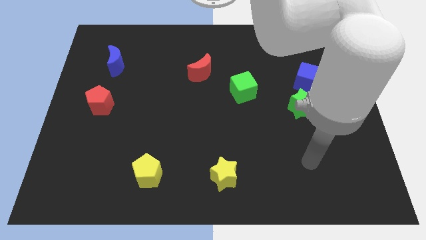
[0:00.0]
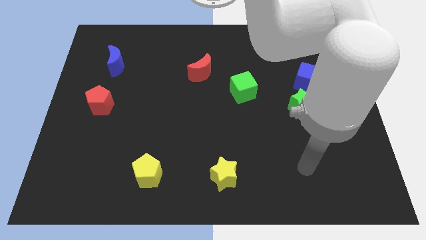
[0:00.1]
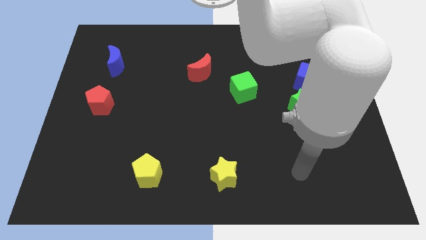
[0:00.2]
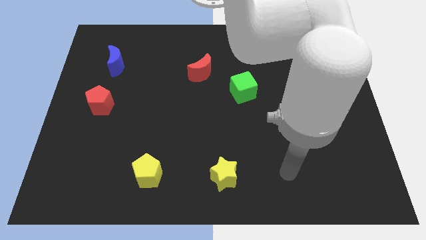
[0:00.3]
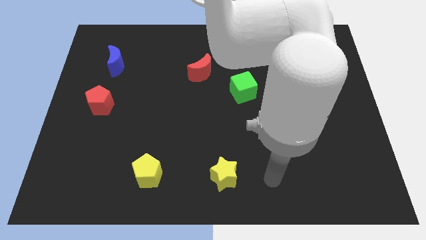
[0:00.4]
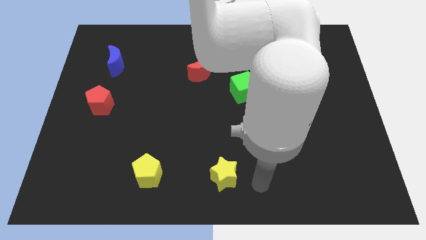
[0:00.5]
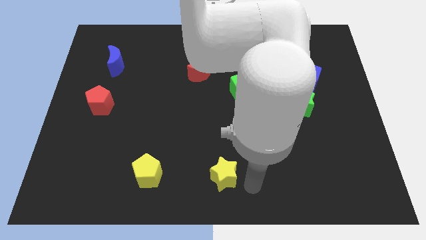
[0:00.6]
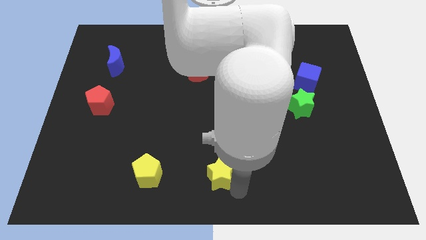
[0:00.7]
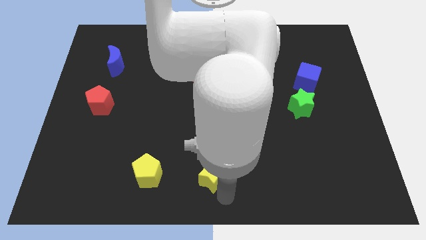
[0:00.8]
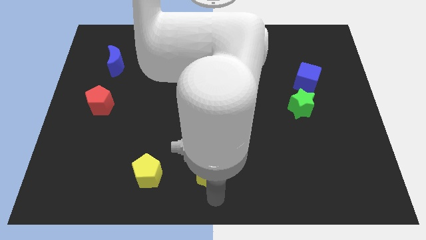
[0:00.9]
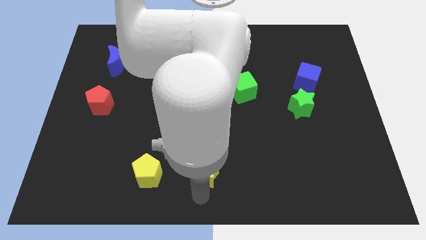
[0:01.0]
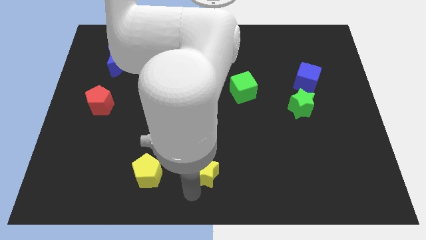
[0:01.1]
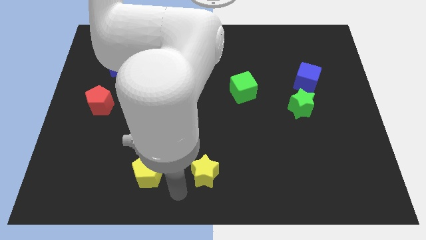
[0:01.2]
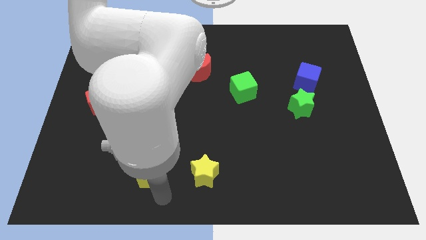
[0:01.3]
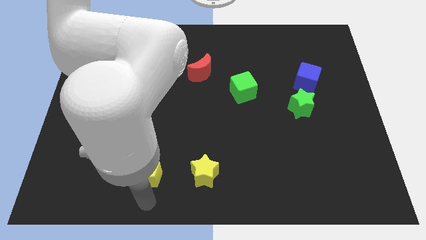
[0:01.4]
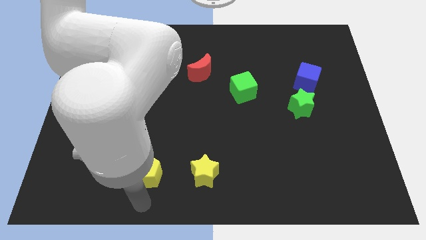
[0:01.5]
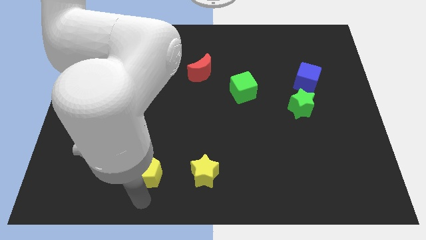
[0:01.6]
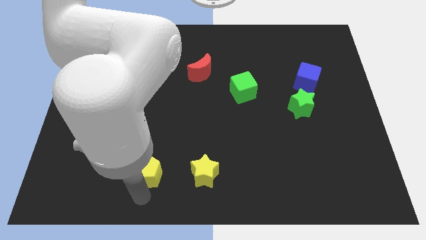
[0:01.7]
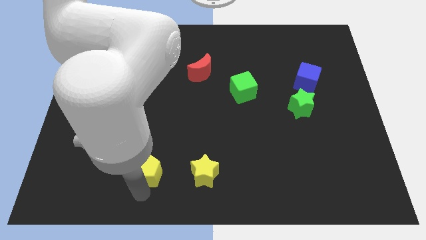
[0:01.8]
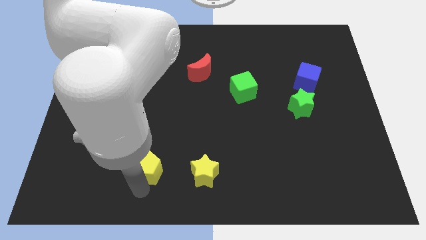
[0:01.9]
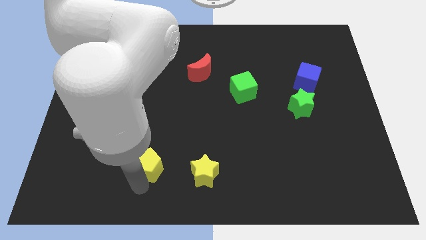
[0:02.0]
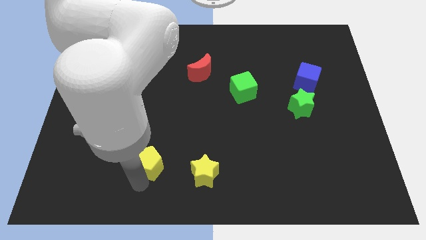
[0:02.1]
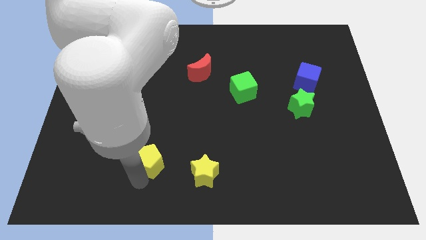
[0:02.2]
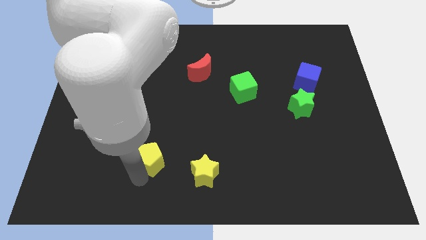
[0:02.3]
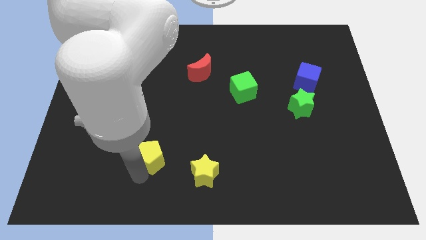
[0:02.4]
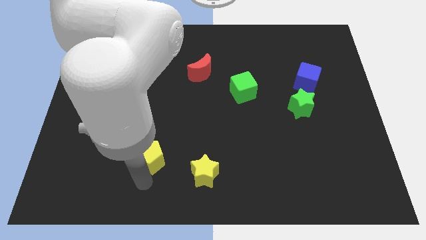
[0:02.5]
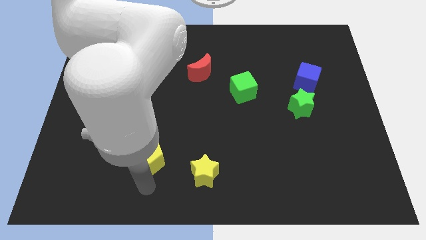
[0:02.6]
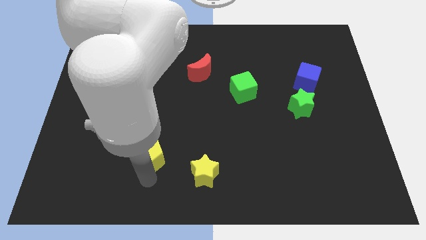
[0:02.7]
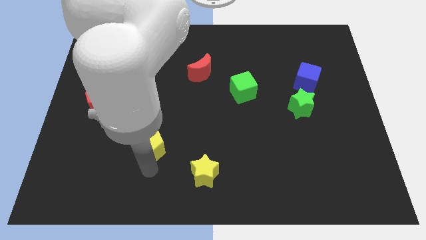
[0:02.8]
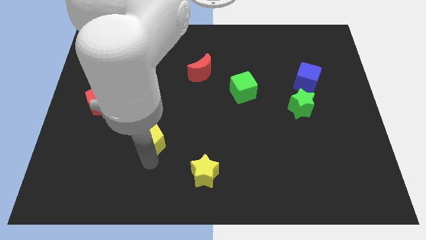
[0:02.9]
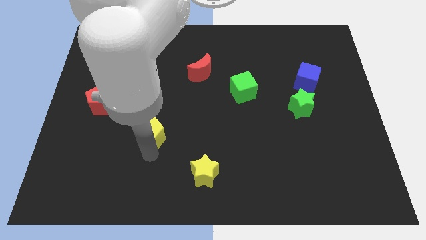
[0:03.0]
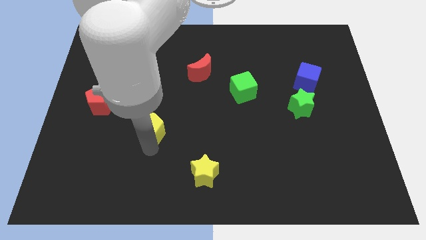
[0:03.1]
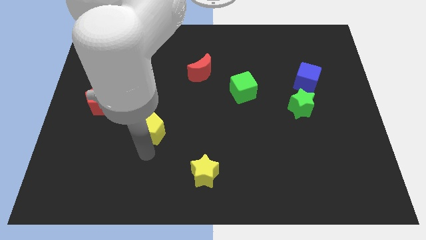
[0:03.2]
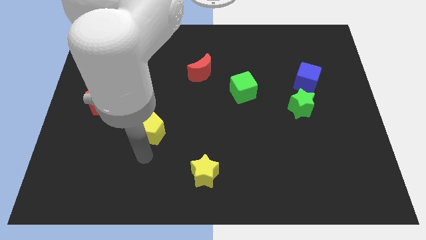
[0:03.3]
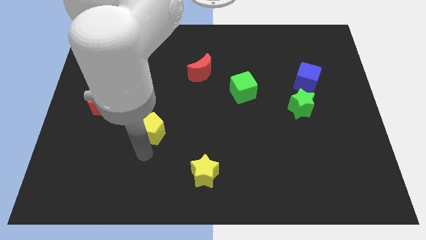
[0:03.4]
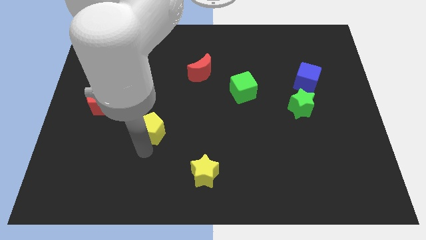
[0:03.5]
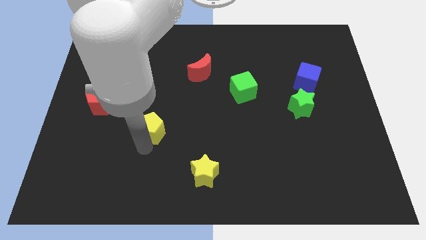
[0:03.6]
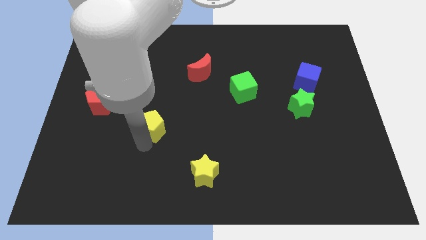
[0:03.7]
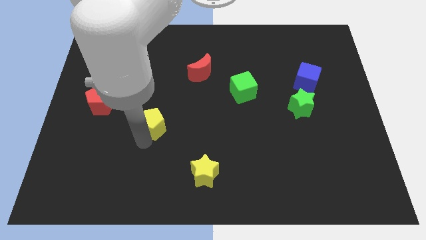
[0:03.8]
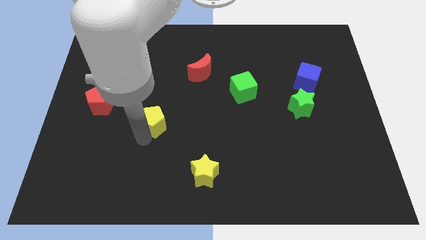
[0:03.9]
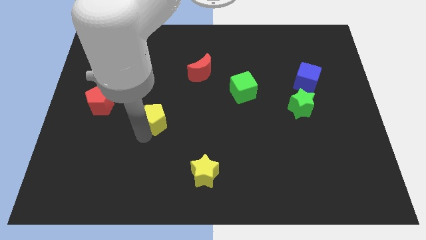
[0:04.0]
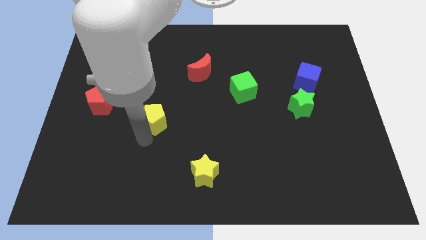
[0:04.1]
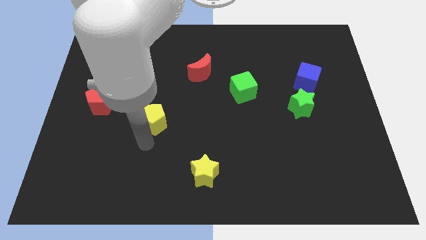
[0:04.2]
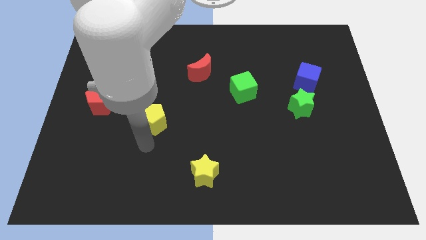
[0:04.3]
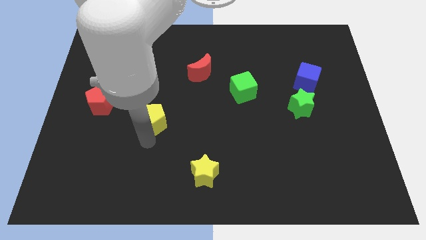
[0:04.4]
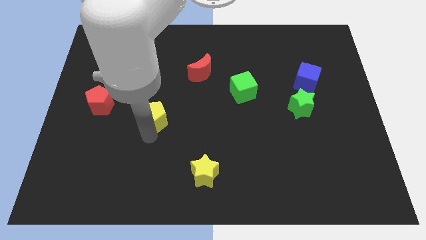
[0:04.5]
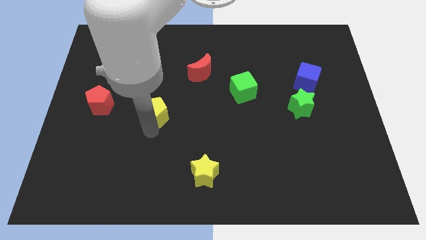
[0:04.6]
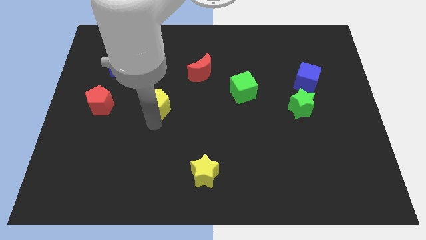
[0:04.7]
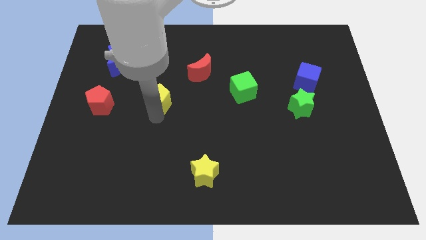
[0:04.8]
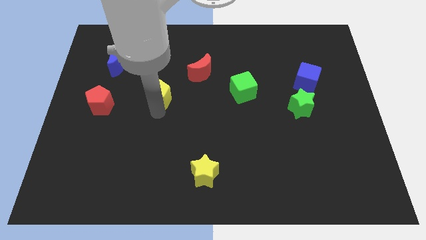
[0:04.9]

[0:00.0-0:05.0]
push the yellow pentagon upwards

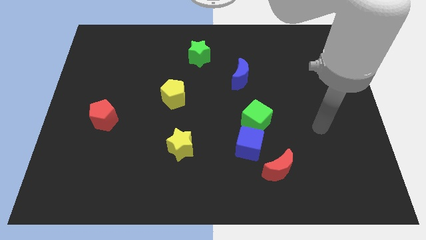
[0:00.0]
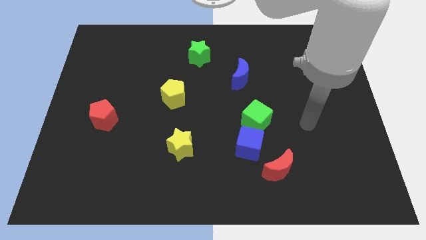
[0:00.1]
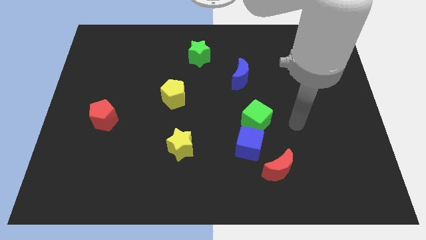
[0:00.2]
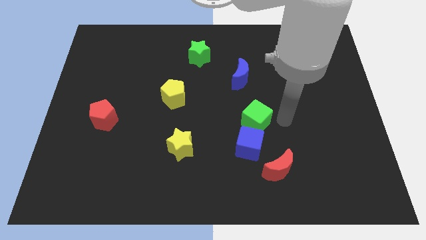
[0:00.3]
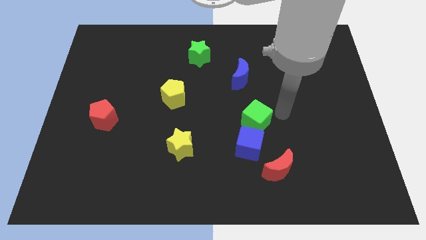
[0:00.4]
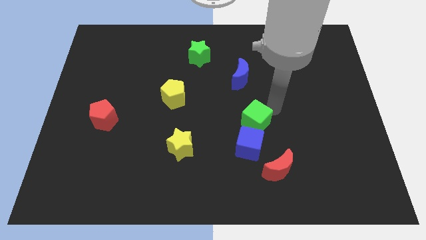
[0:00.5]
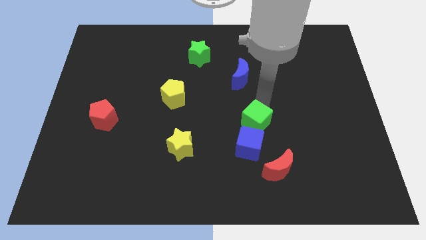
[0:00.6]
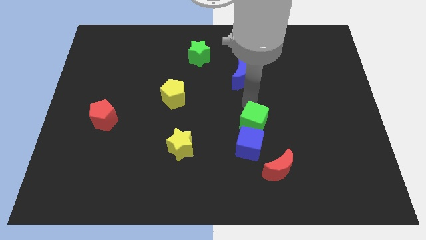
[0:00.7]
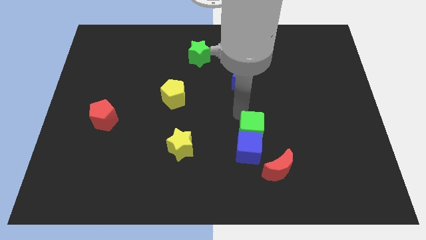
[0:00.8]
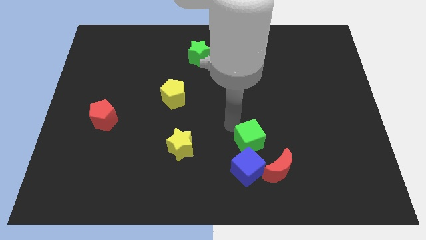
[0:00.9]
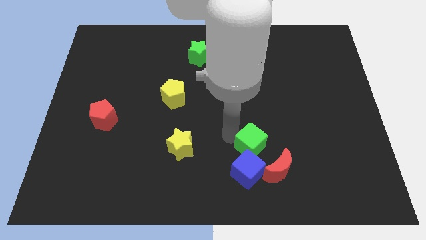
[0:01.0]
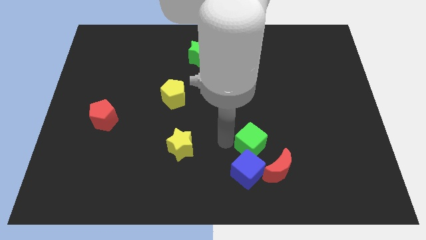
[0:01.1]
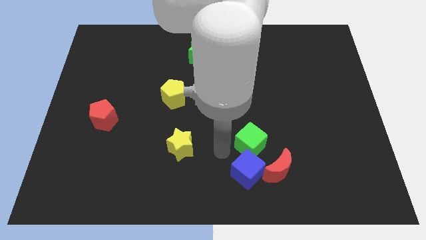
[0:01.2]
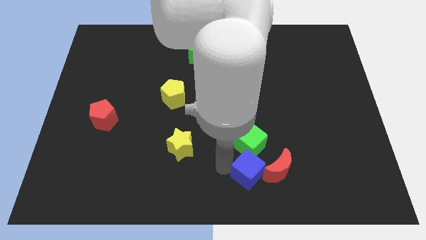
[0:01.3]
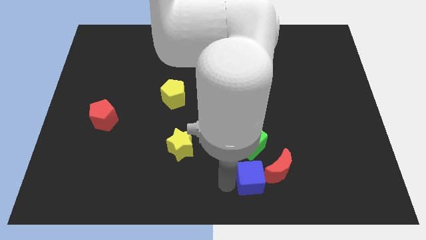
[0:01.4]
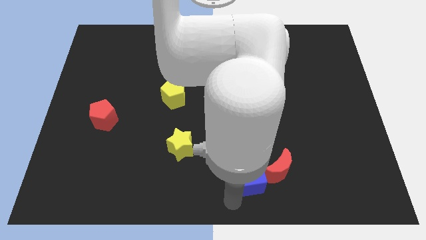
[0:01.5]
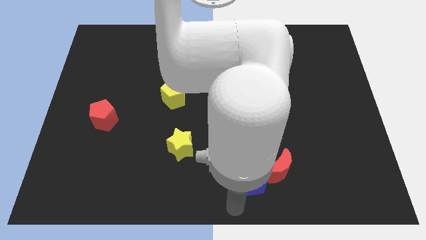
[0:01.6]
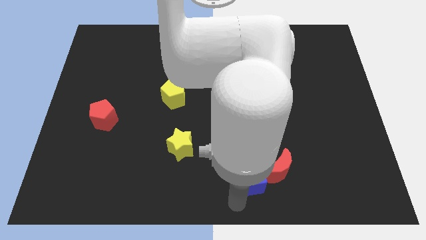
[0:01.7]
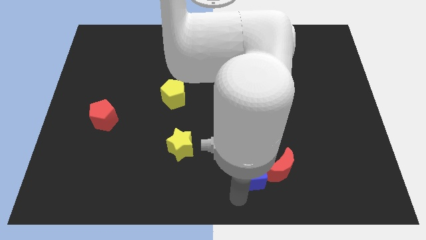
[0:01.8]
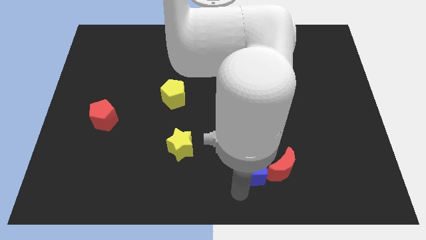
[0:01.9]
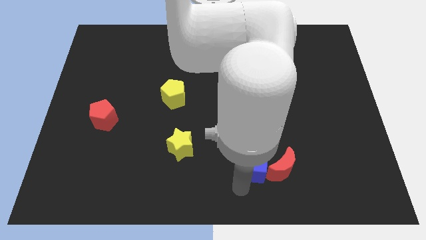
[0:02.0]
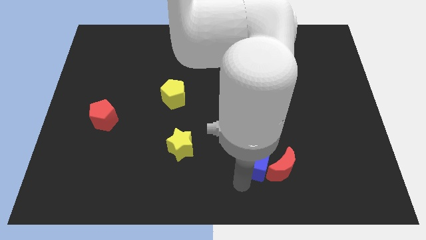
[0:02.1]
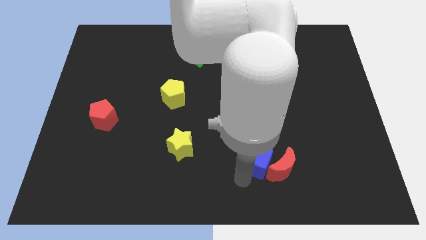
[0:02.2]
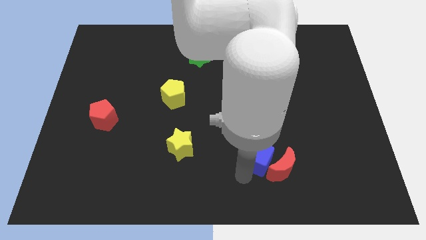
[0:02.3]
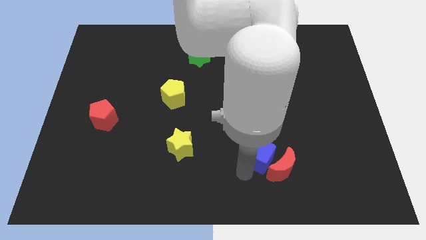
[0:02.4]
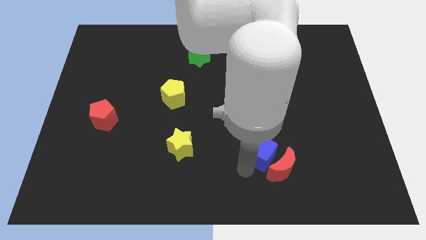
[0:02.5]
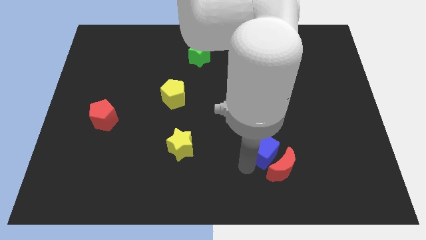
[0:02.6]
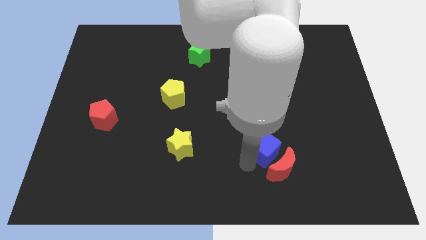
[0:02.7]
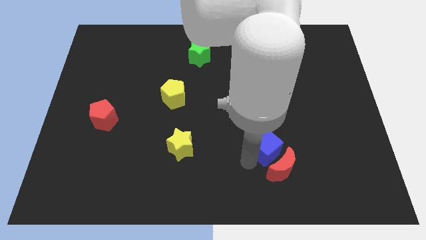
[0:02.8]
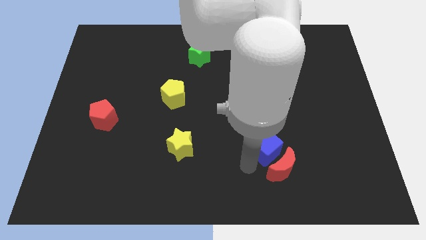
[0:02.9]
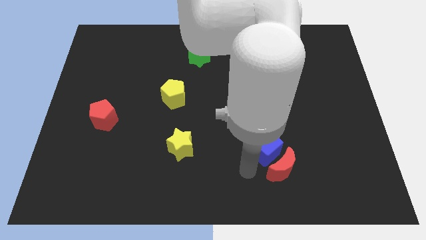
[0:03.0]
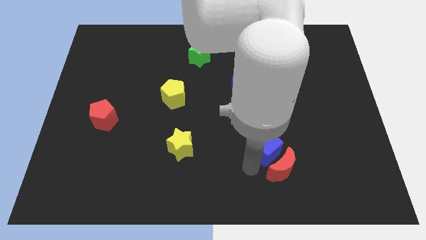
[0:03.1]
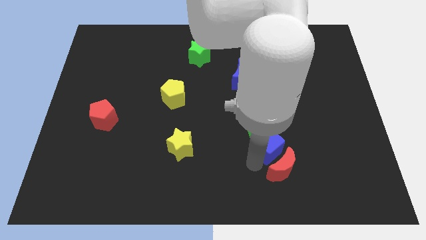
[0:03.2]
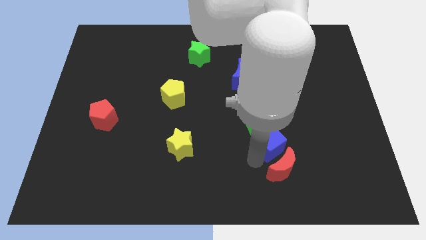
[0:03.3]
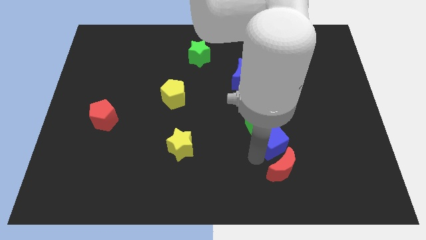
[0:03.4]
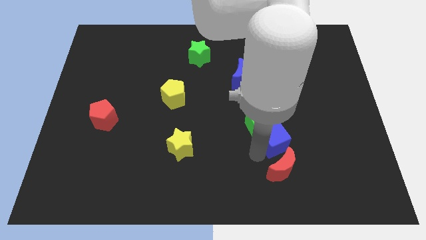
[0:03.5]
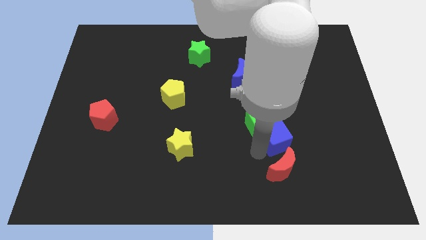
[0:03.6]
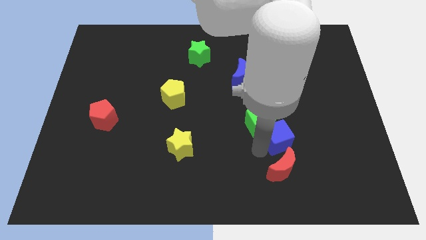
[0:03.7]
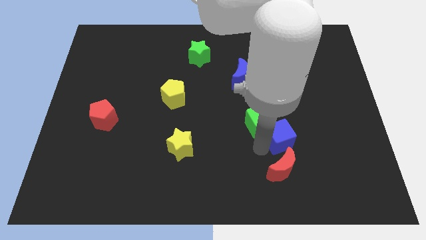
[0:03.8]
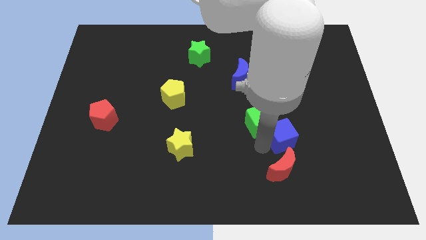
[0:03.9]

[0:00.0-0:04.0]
slide the blue cube to the right a little
